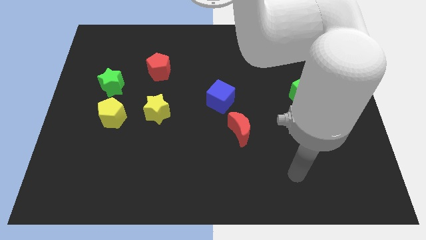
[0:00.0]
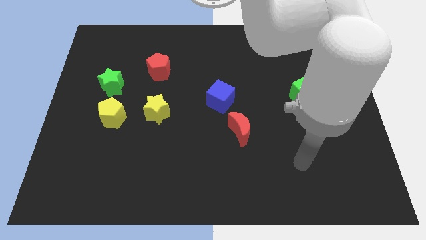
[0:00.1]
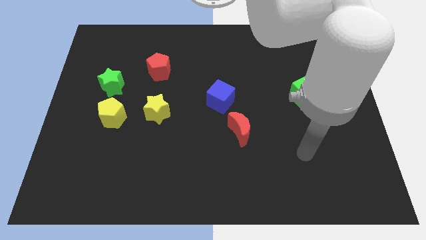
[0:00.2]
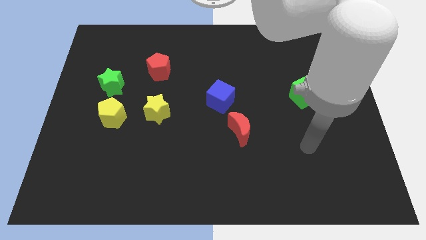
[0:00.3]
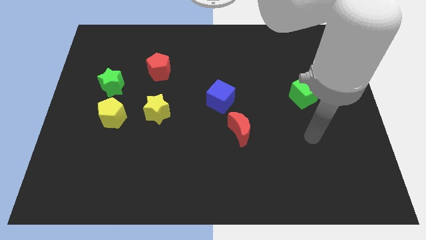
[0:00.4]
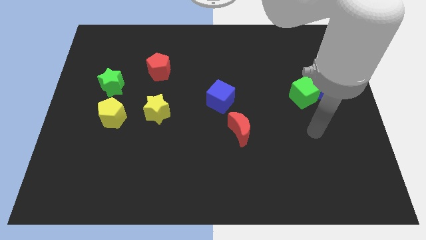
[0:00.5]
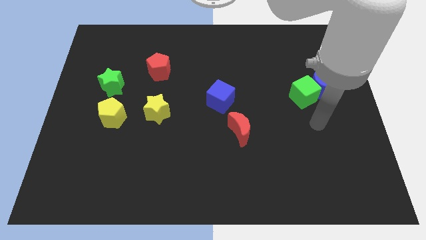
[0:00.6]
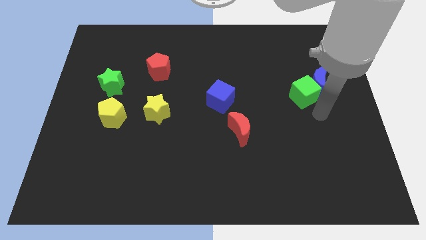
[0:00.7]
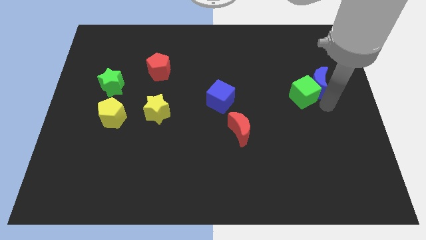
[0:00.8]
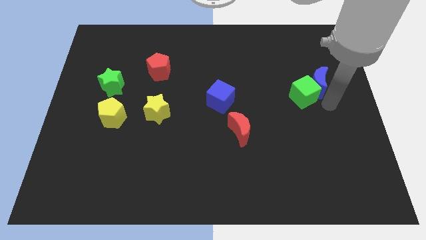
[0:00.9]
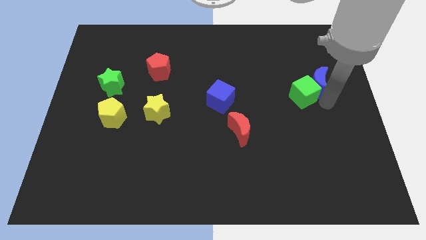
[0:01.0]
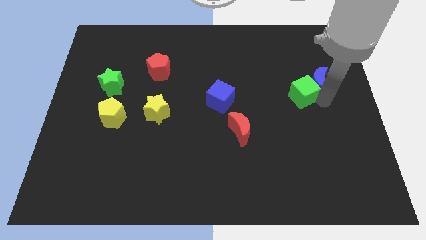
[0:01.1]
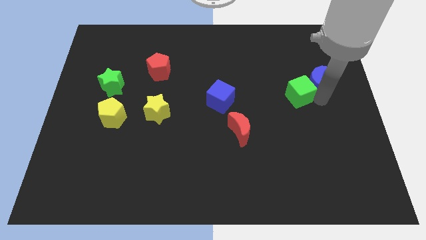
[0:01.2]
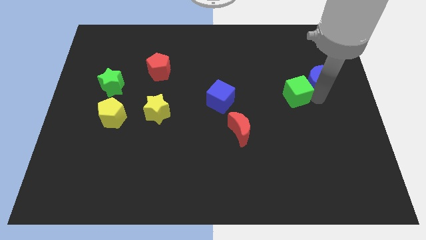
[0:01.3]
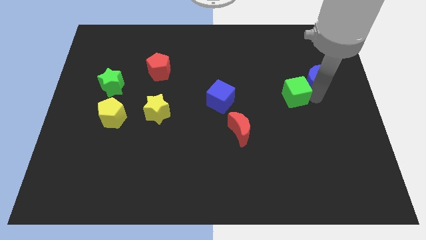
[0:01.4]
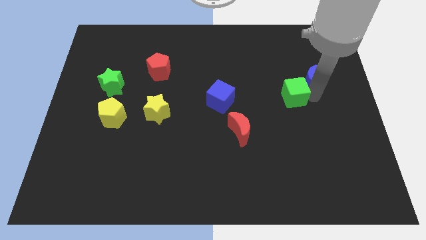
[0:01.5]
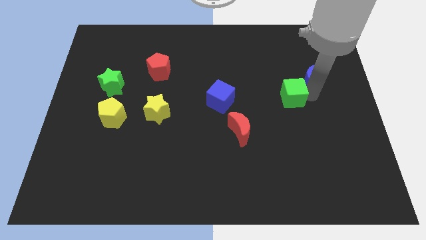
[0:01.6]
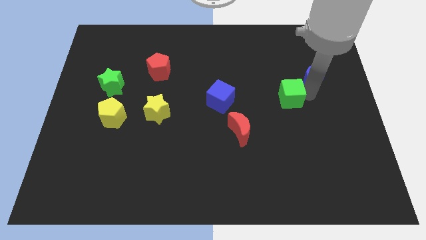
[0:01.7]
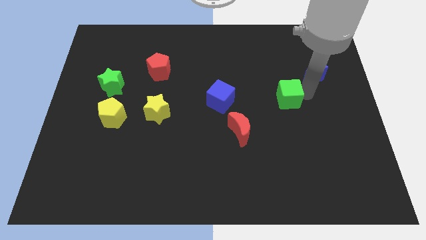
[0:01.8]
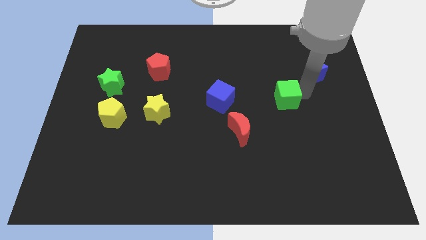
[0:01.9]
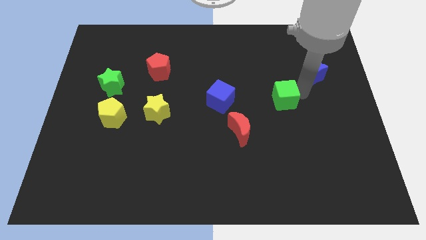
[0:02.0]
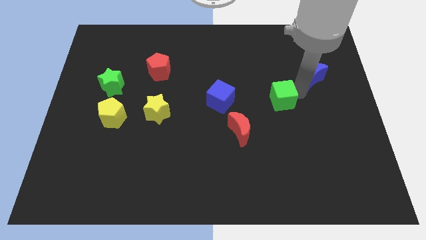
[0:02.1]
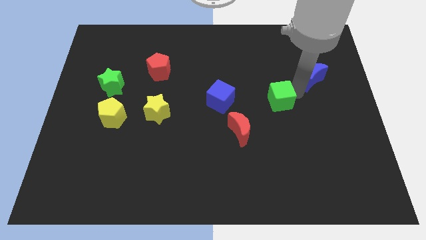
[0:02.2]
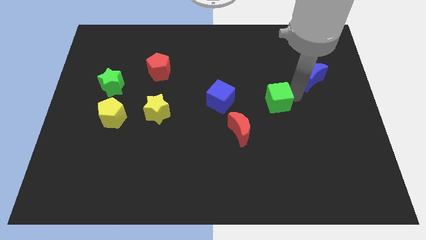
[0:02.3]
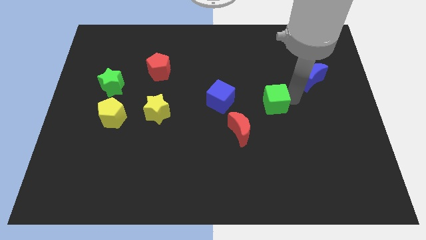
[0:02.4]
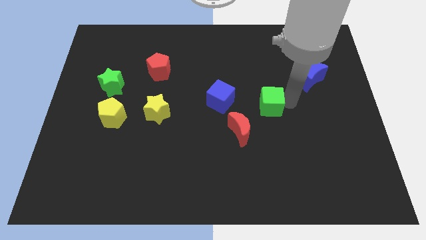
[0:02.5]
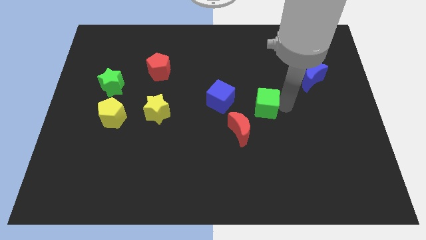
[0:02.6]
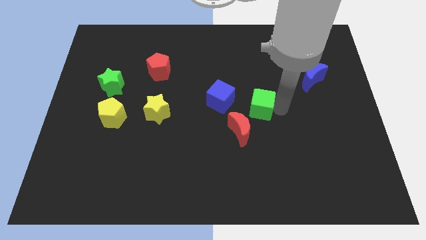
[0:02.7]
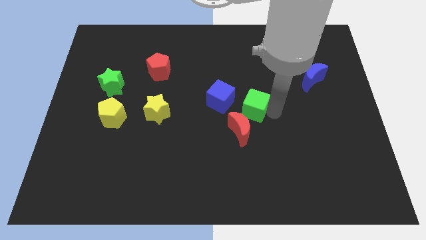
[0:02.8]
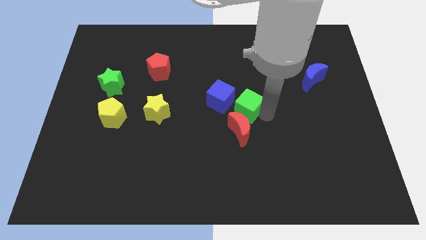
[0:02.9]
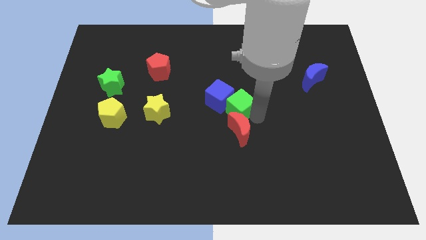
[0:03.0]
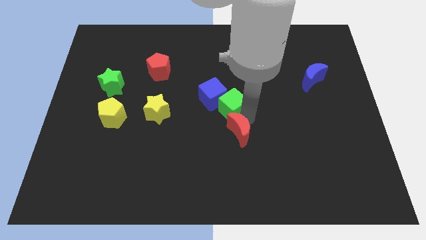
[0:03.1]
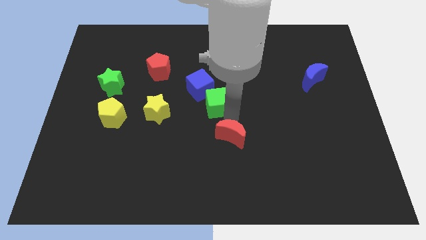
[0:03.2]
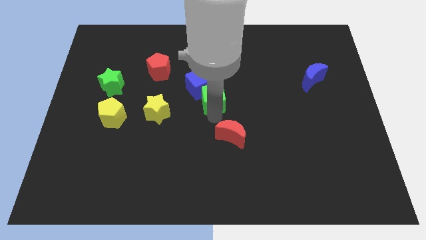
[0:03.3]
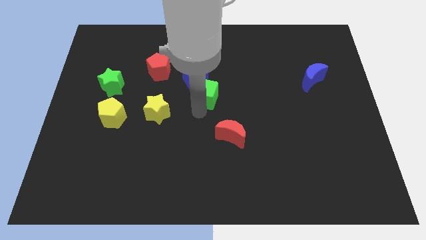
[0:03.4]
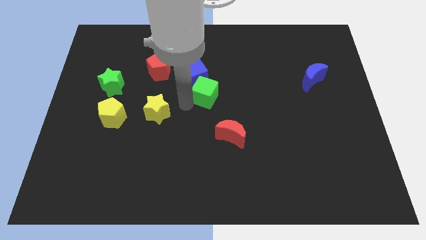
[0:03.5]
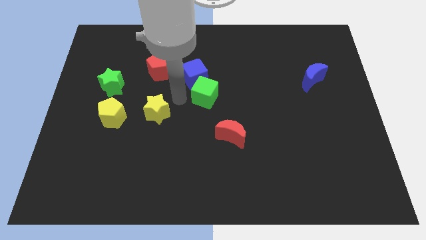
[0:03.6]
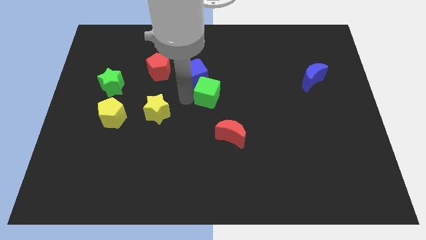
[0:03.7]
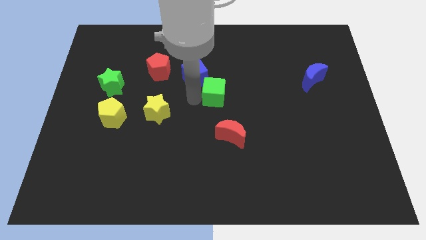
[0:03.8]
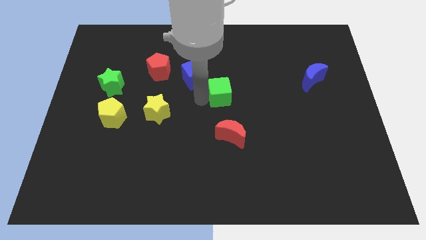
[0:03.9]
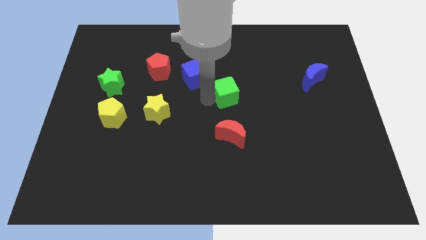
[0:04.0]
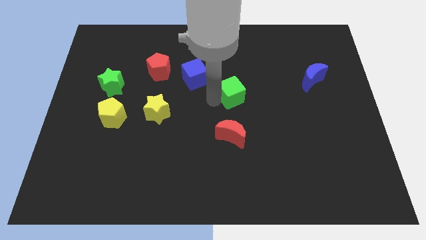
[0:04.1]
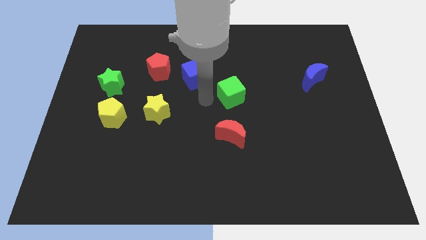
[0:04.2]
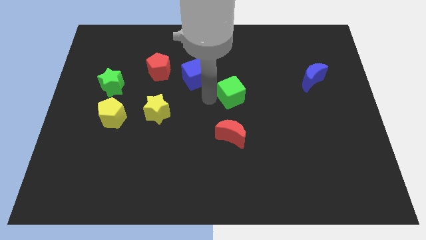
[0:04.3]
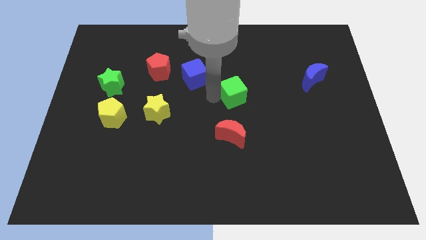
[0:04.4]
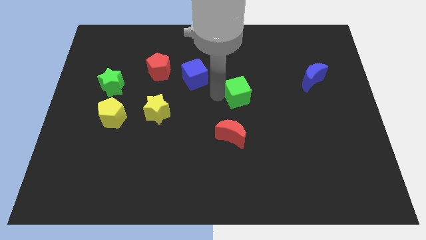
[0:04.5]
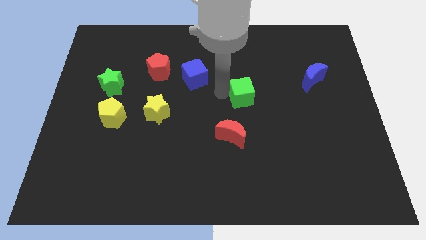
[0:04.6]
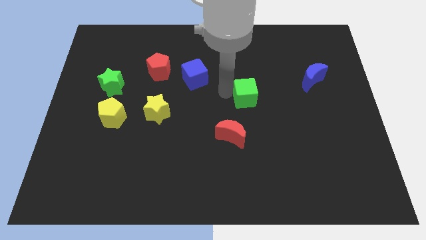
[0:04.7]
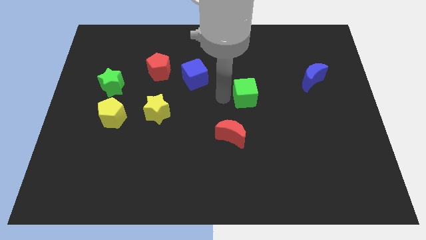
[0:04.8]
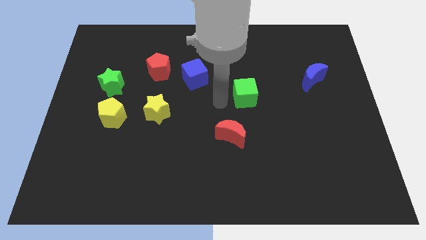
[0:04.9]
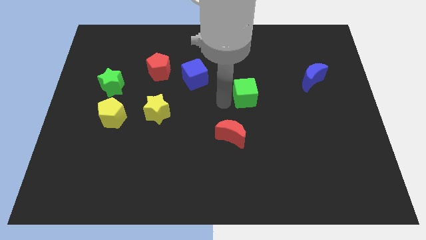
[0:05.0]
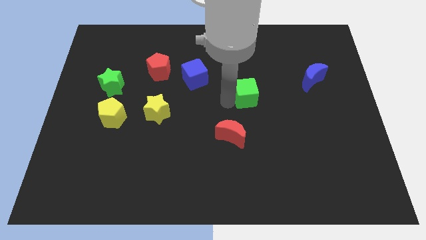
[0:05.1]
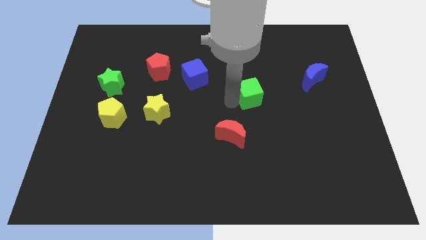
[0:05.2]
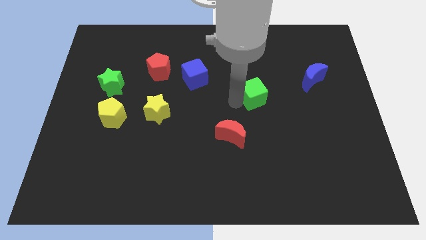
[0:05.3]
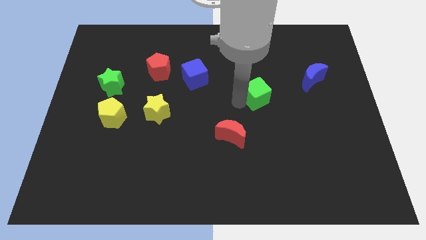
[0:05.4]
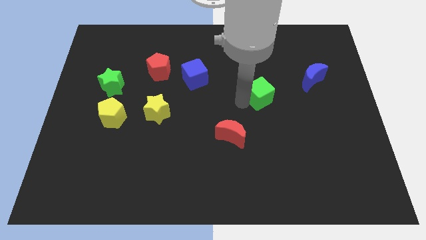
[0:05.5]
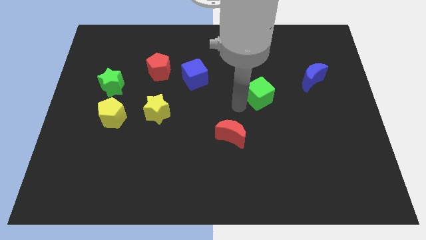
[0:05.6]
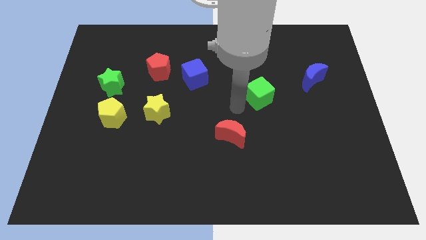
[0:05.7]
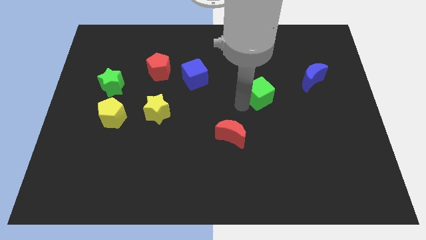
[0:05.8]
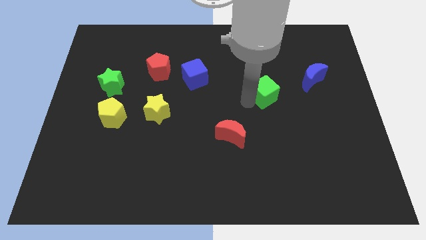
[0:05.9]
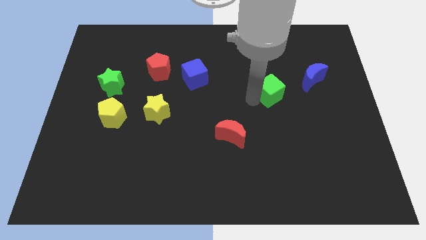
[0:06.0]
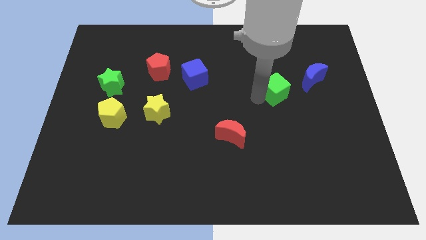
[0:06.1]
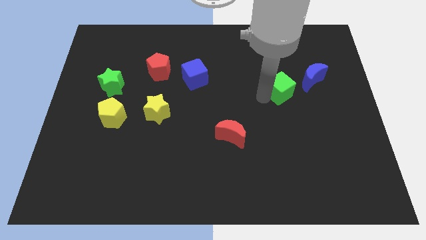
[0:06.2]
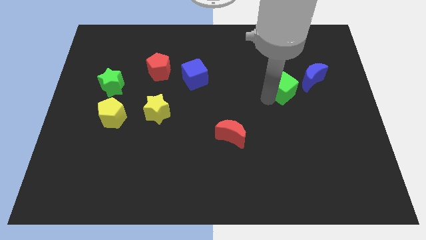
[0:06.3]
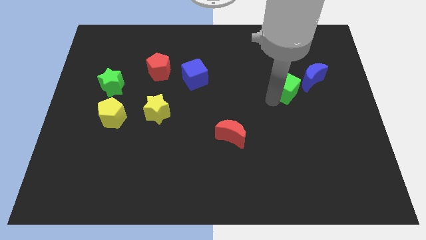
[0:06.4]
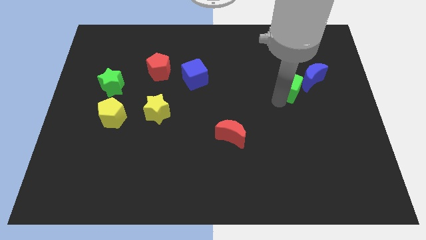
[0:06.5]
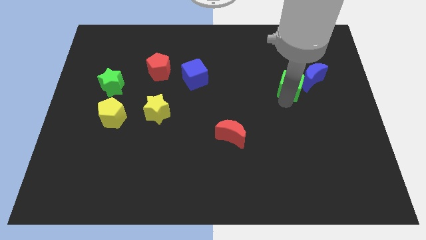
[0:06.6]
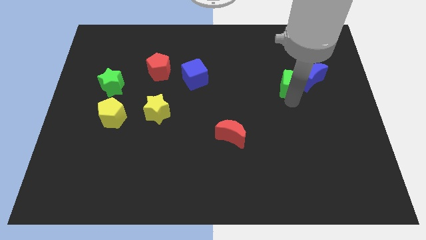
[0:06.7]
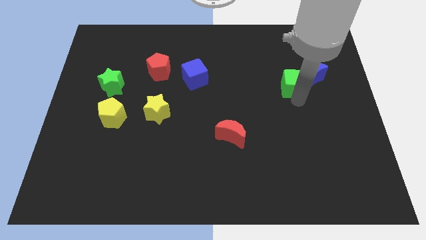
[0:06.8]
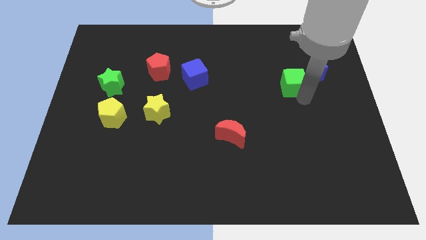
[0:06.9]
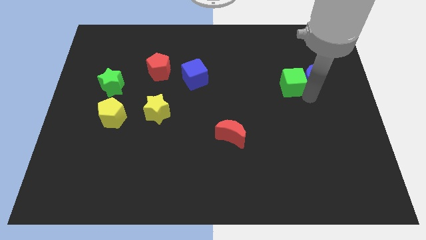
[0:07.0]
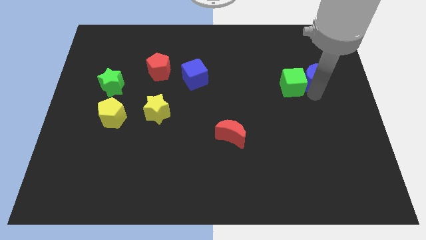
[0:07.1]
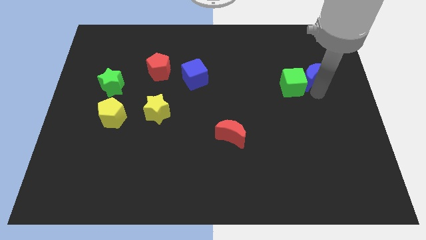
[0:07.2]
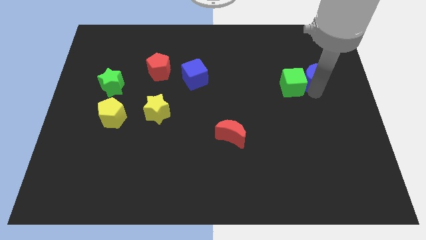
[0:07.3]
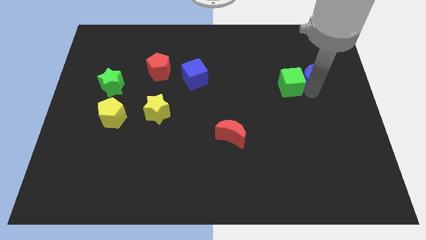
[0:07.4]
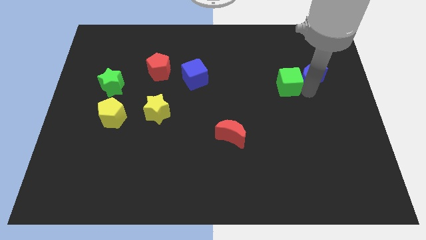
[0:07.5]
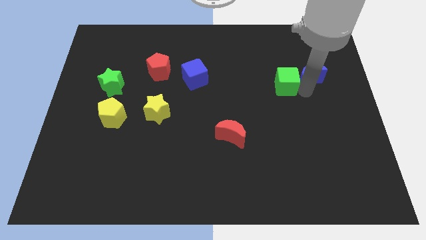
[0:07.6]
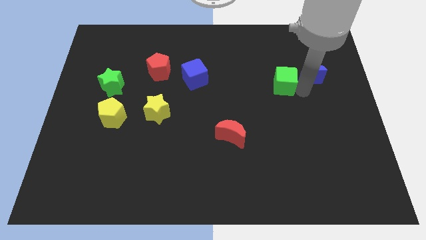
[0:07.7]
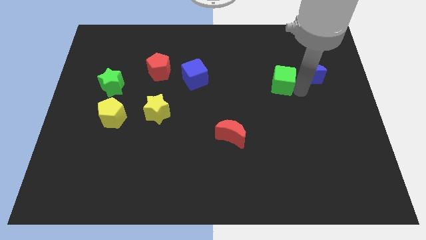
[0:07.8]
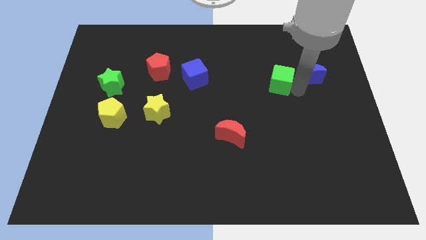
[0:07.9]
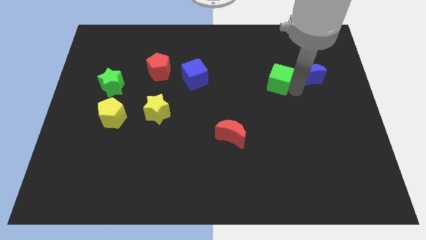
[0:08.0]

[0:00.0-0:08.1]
slightly push the green cube up and left
